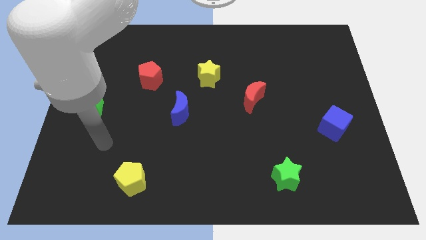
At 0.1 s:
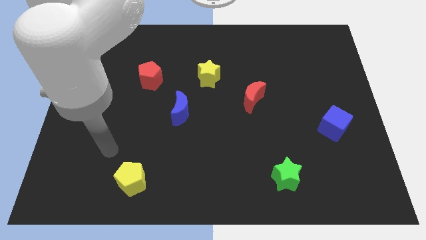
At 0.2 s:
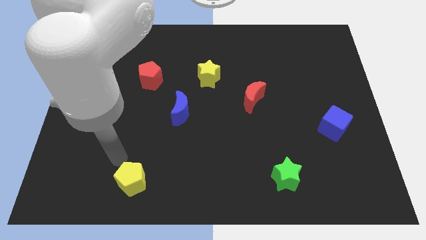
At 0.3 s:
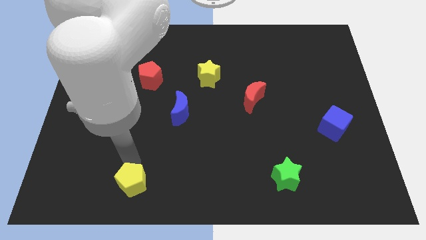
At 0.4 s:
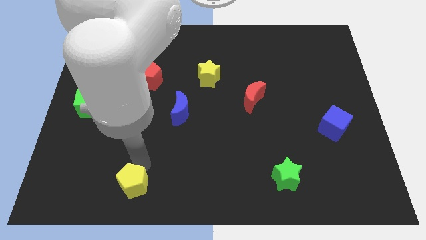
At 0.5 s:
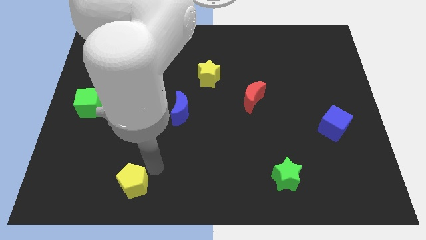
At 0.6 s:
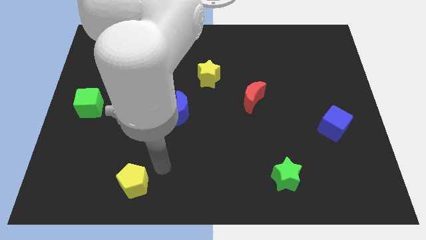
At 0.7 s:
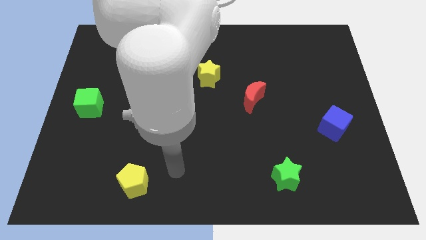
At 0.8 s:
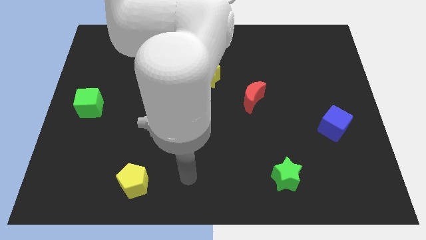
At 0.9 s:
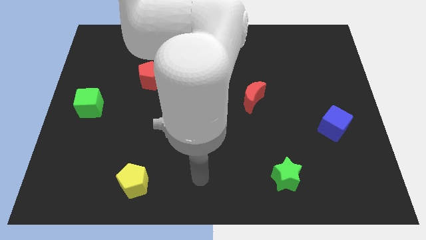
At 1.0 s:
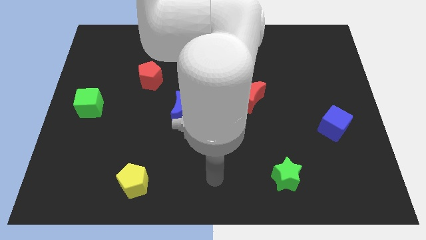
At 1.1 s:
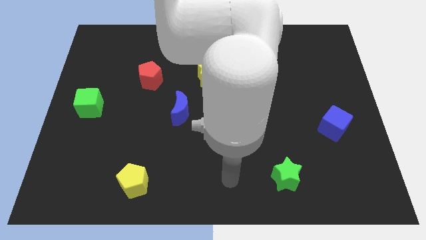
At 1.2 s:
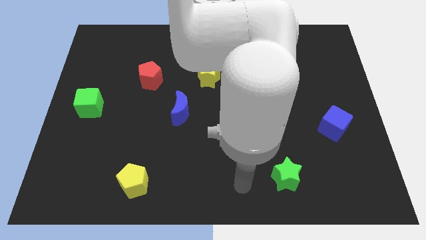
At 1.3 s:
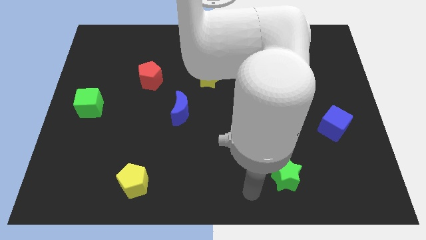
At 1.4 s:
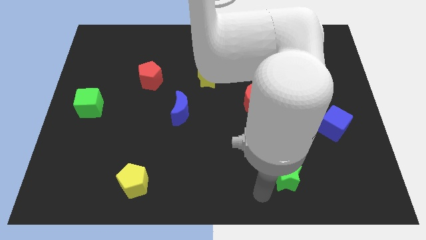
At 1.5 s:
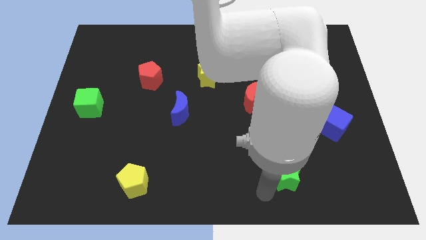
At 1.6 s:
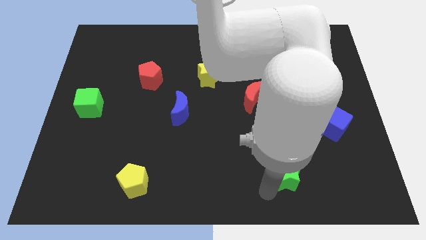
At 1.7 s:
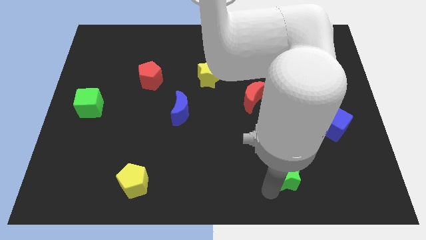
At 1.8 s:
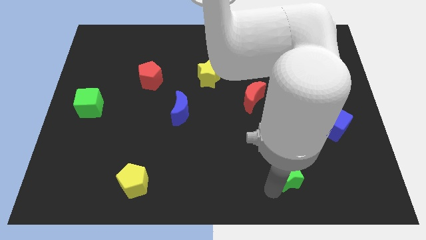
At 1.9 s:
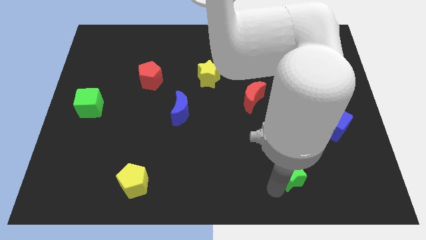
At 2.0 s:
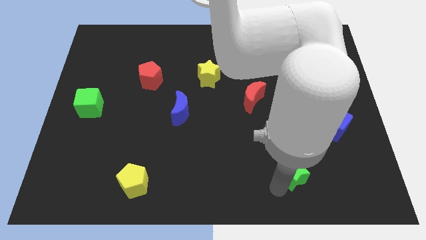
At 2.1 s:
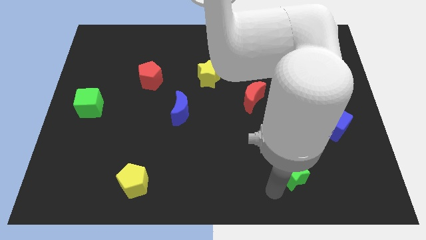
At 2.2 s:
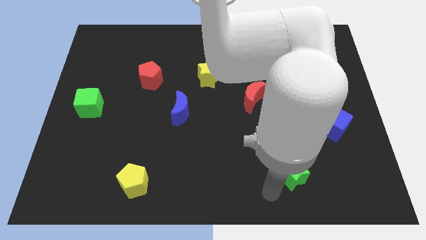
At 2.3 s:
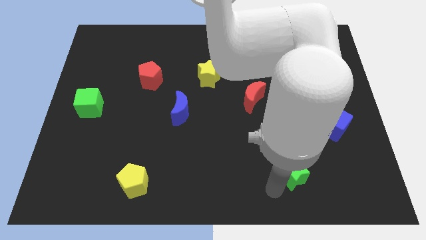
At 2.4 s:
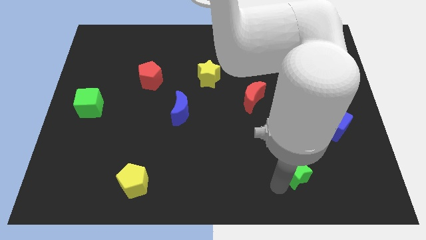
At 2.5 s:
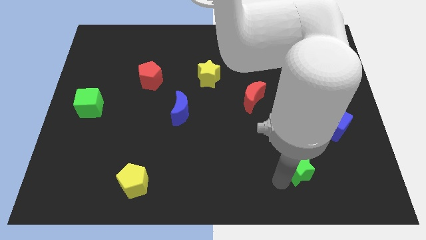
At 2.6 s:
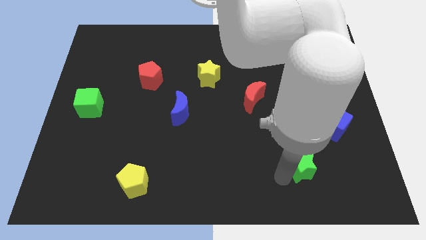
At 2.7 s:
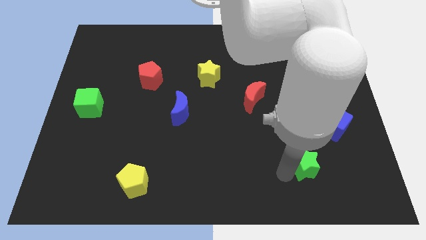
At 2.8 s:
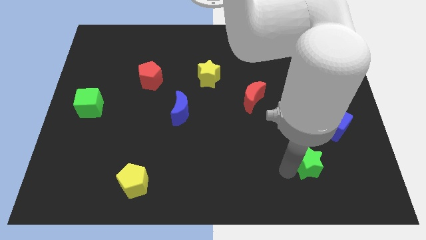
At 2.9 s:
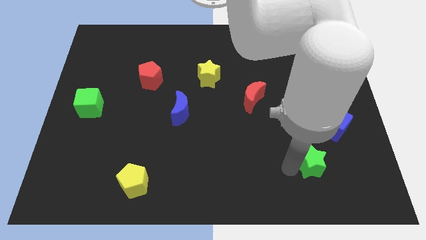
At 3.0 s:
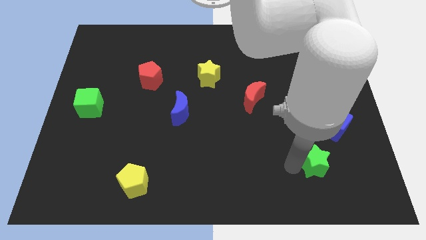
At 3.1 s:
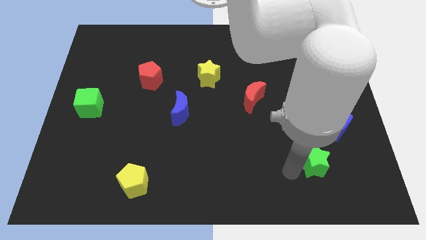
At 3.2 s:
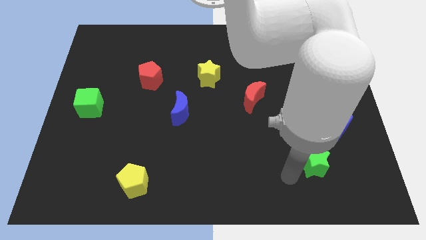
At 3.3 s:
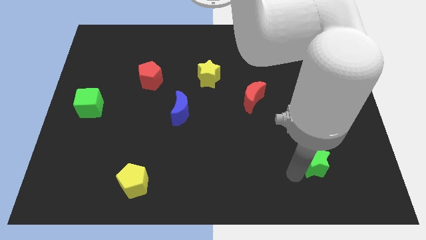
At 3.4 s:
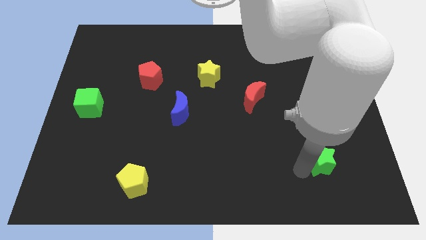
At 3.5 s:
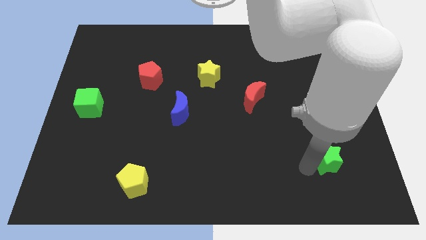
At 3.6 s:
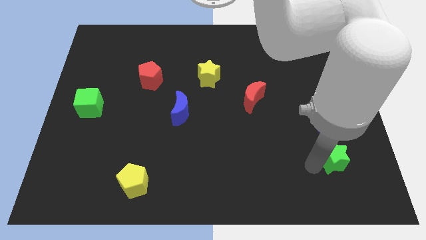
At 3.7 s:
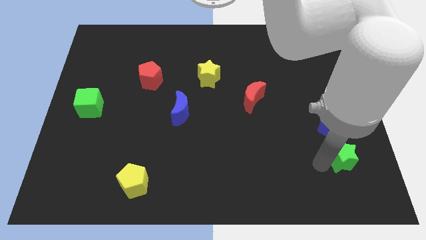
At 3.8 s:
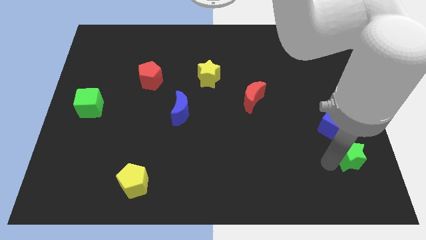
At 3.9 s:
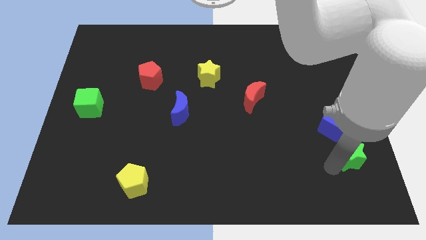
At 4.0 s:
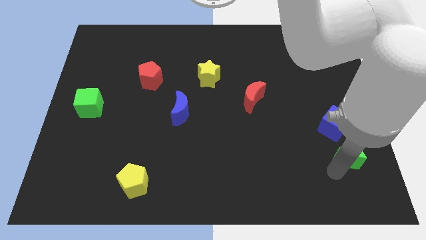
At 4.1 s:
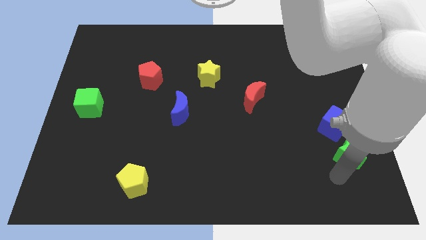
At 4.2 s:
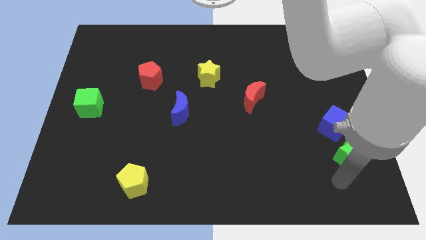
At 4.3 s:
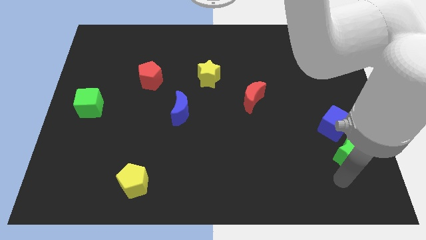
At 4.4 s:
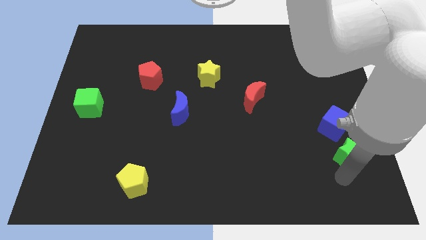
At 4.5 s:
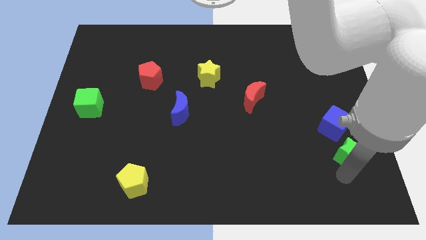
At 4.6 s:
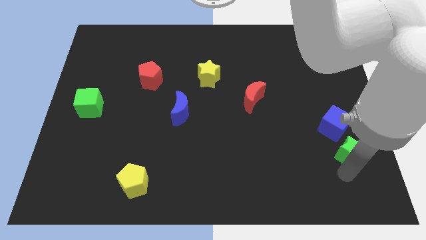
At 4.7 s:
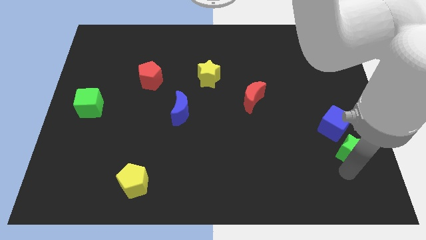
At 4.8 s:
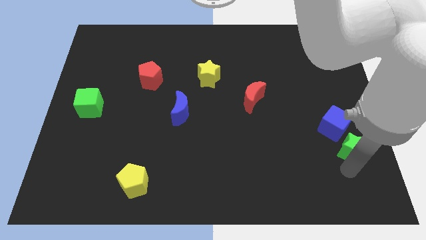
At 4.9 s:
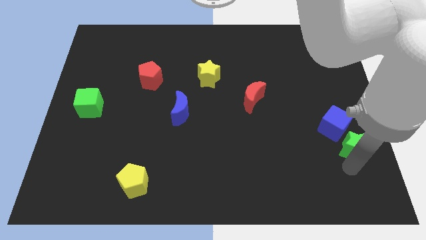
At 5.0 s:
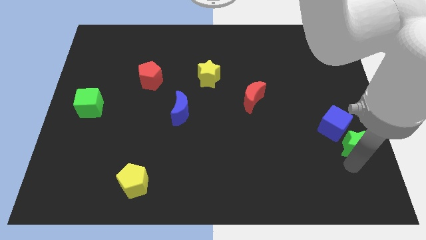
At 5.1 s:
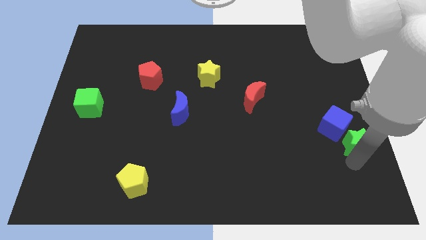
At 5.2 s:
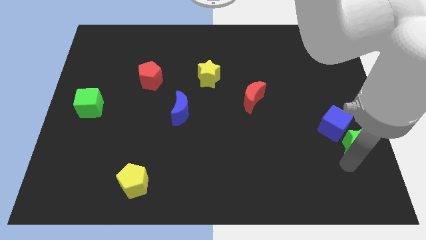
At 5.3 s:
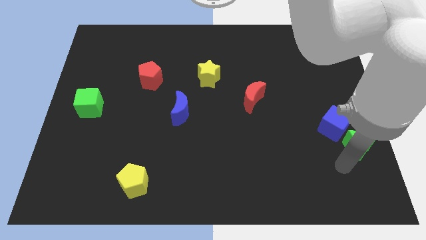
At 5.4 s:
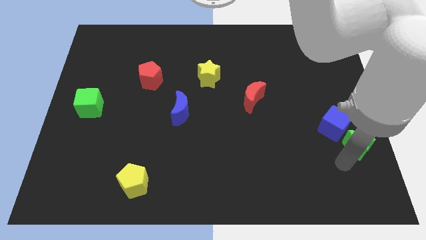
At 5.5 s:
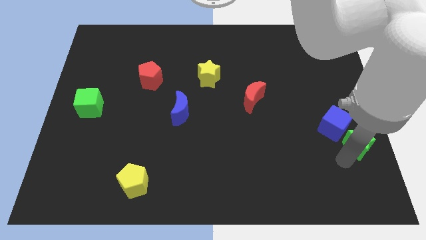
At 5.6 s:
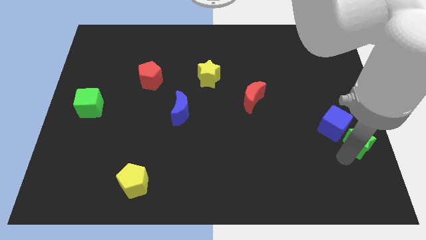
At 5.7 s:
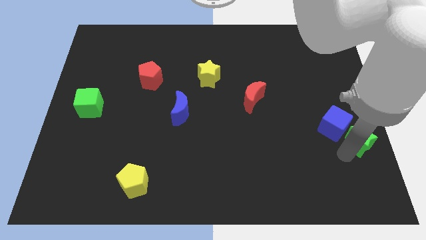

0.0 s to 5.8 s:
move the green star to the right side

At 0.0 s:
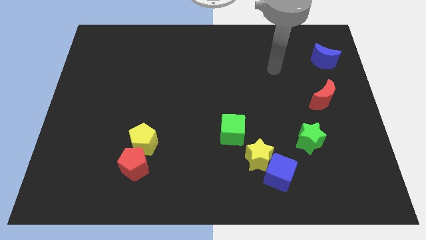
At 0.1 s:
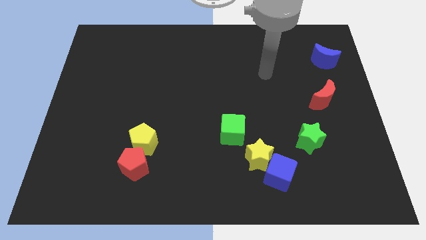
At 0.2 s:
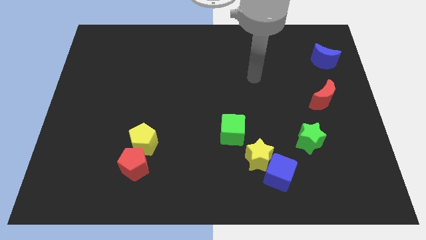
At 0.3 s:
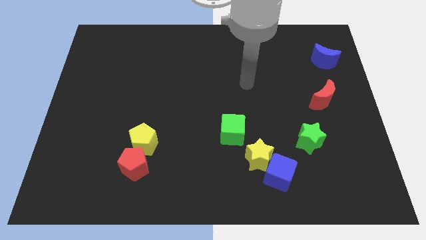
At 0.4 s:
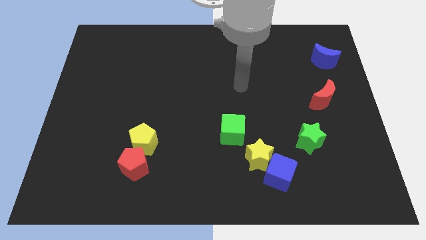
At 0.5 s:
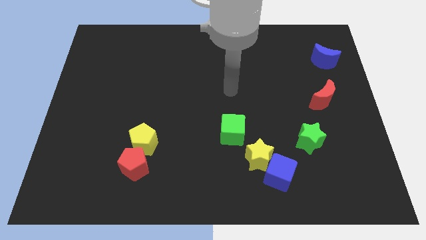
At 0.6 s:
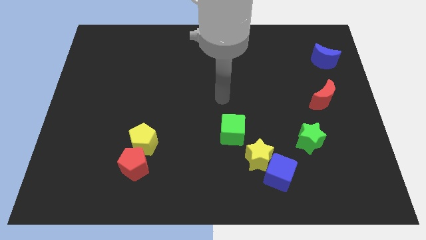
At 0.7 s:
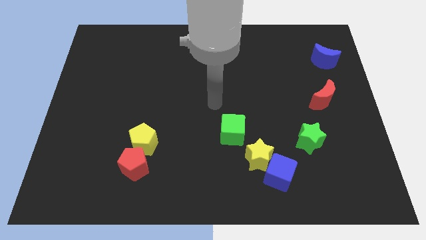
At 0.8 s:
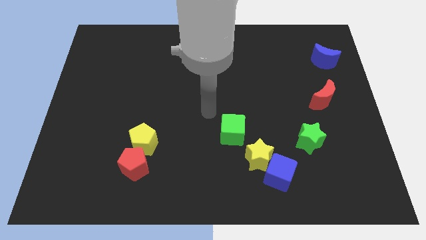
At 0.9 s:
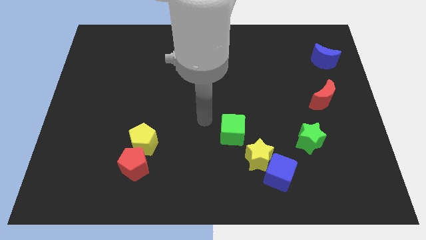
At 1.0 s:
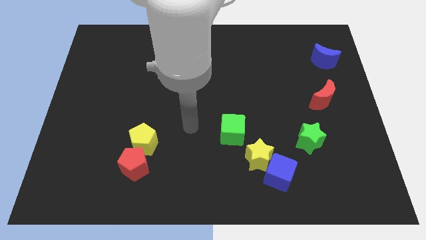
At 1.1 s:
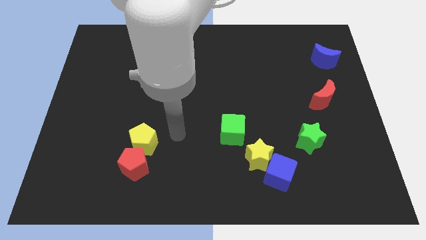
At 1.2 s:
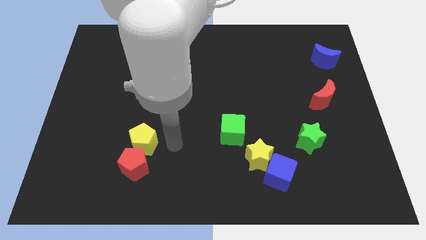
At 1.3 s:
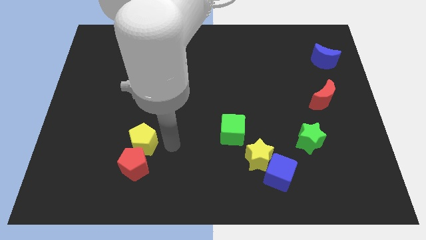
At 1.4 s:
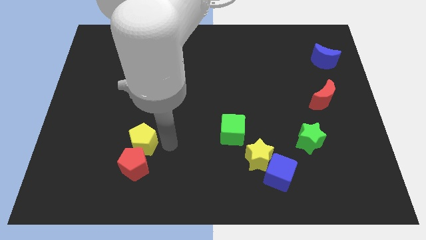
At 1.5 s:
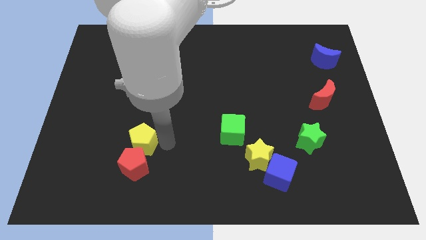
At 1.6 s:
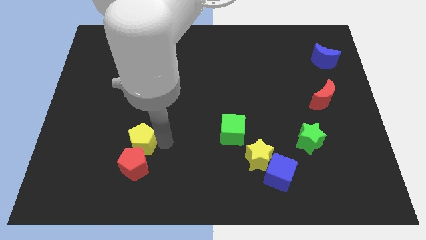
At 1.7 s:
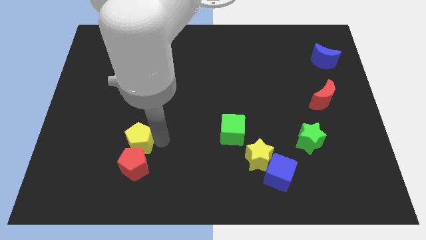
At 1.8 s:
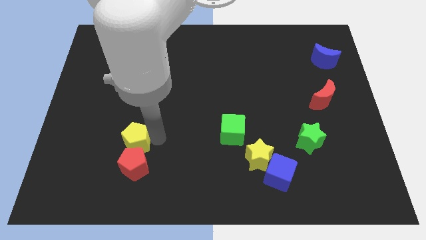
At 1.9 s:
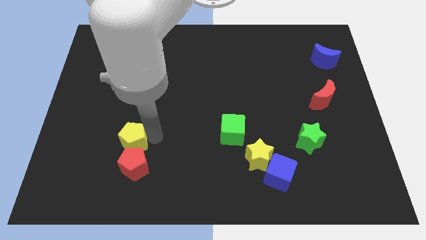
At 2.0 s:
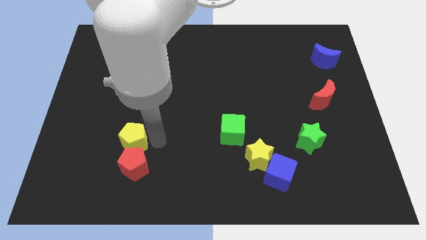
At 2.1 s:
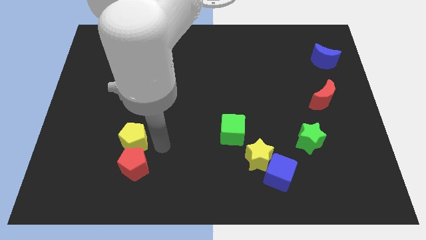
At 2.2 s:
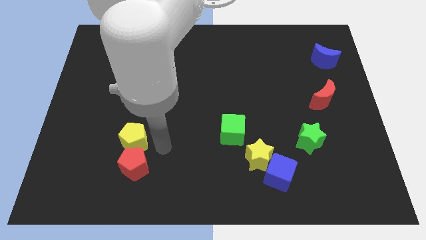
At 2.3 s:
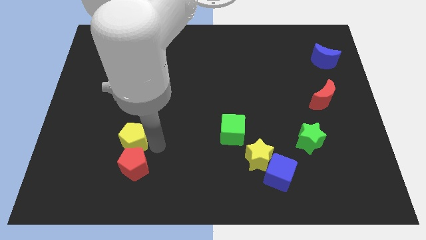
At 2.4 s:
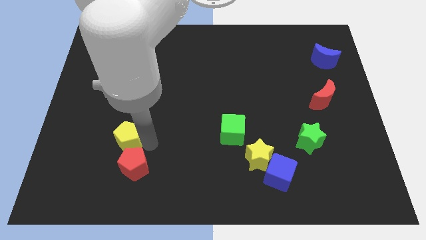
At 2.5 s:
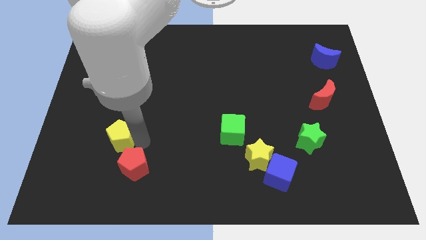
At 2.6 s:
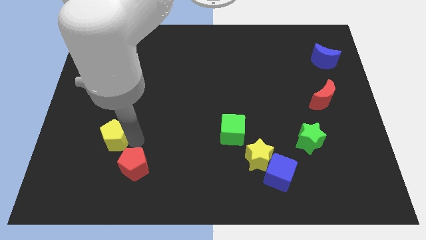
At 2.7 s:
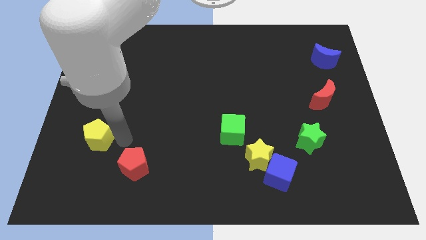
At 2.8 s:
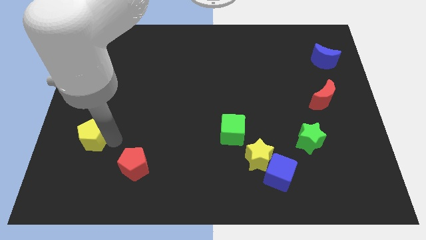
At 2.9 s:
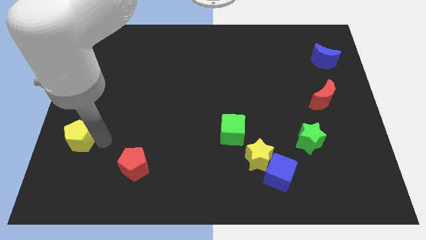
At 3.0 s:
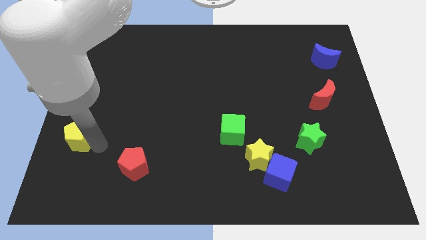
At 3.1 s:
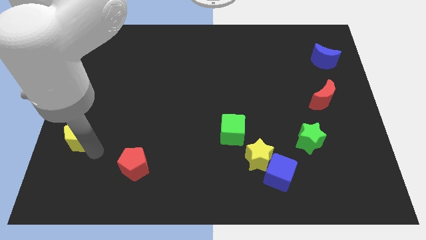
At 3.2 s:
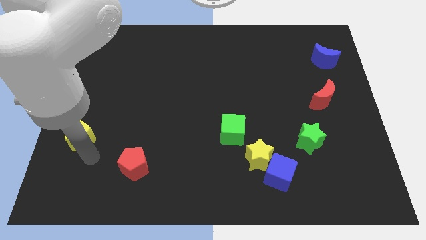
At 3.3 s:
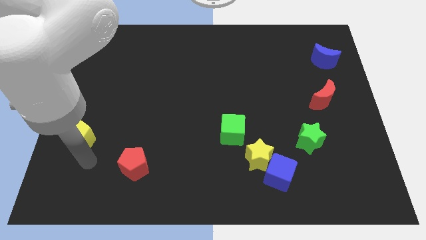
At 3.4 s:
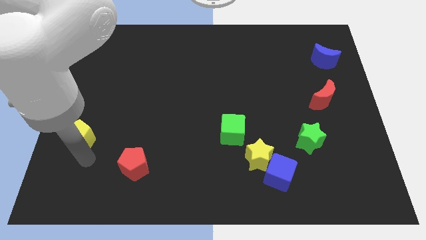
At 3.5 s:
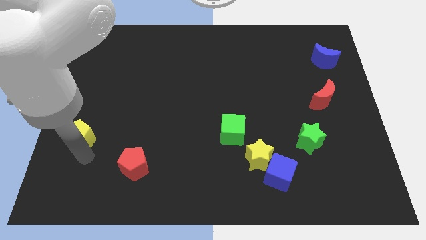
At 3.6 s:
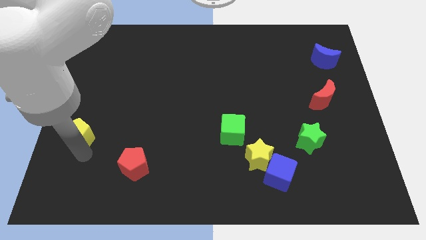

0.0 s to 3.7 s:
slide the yellow pentagon to the center left
